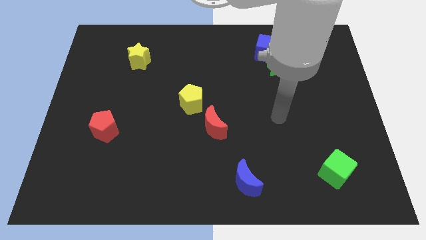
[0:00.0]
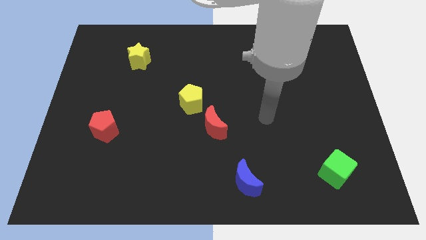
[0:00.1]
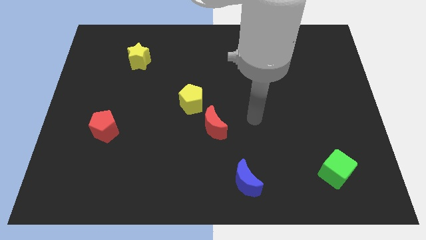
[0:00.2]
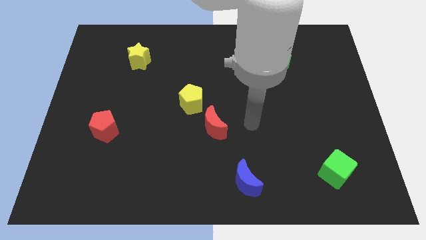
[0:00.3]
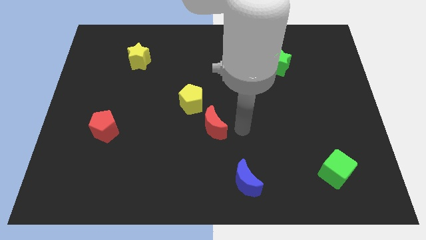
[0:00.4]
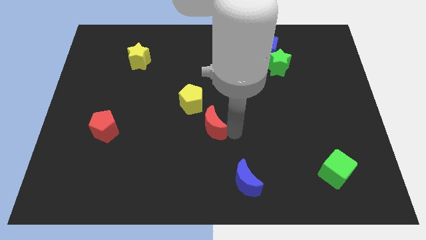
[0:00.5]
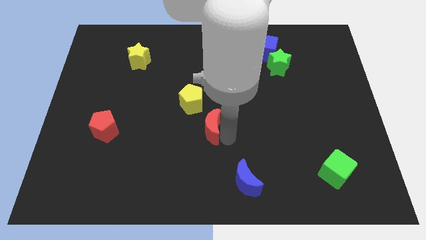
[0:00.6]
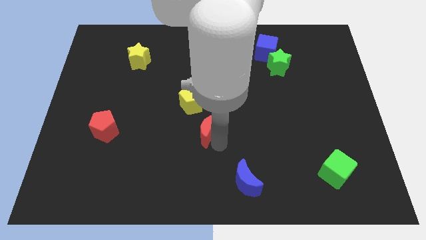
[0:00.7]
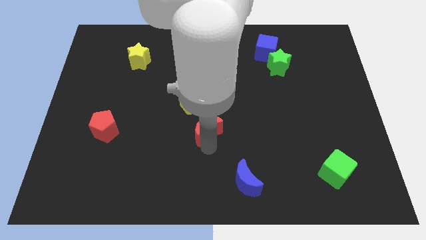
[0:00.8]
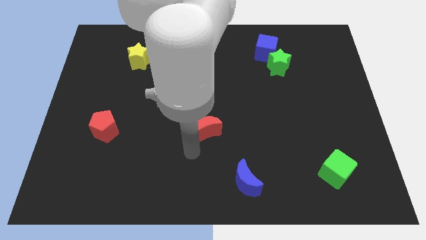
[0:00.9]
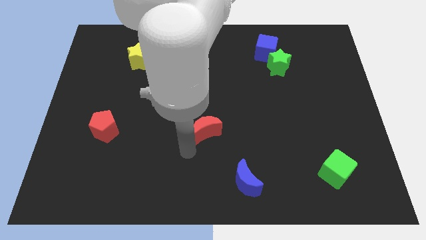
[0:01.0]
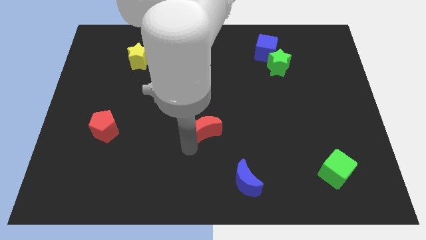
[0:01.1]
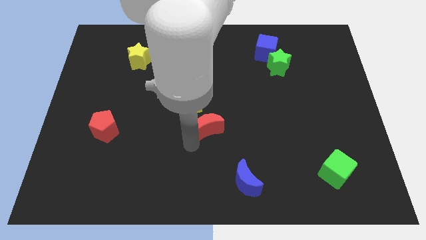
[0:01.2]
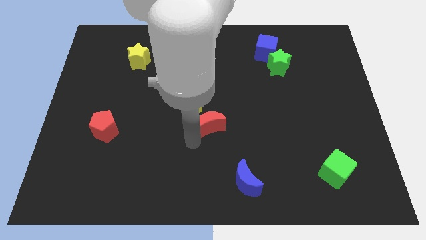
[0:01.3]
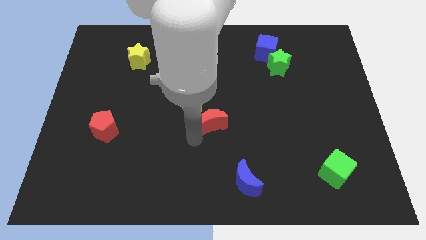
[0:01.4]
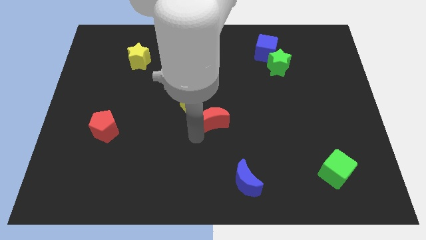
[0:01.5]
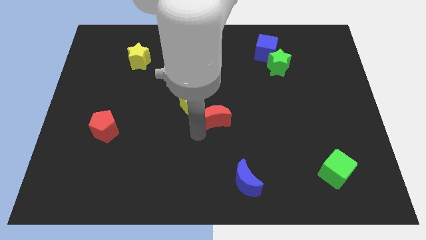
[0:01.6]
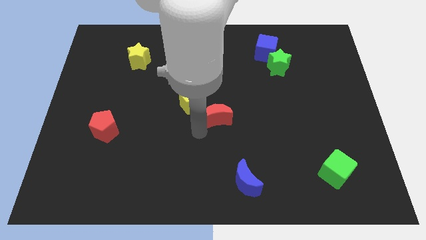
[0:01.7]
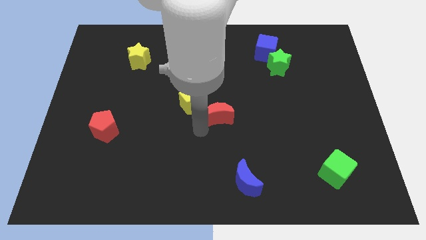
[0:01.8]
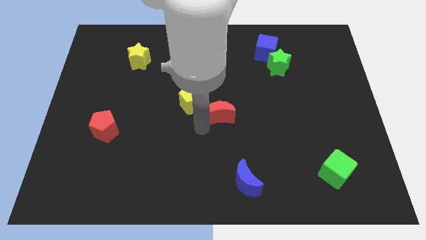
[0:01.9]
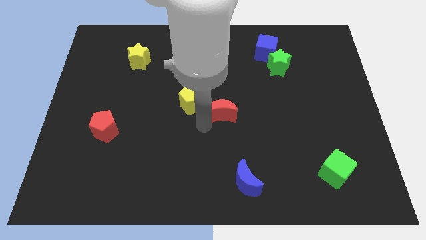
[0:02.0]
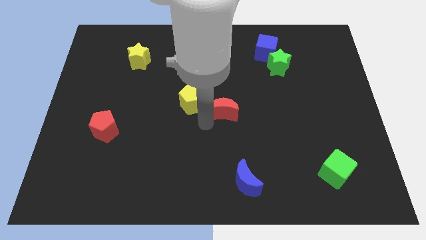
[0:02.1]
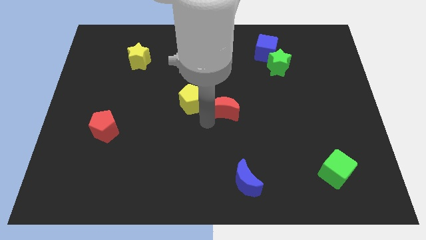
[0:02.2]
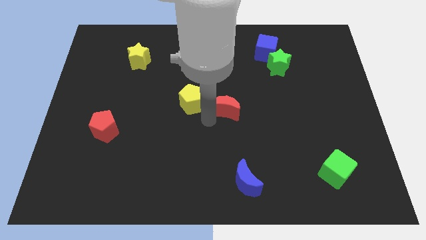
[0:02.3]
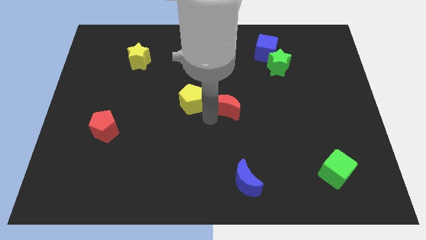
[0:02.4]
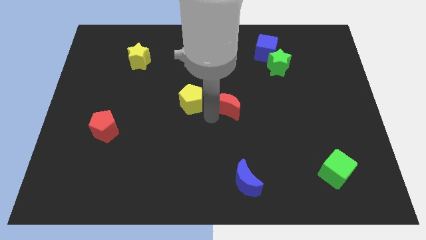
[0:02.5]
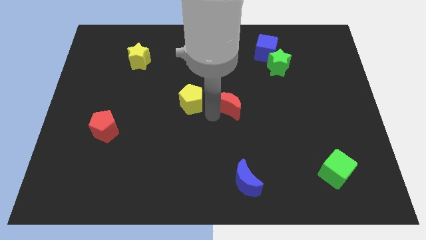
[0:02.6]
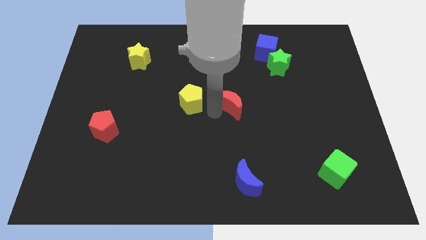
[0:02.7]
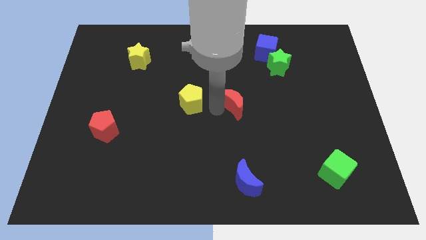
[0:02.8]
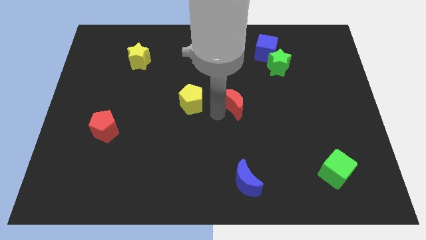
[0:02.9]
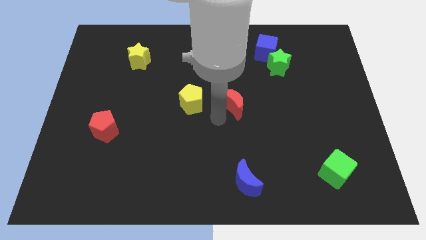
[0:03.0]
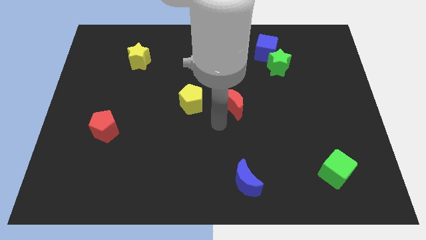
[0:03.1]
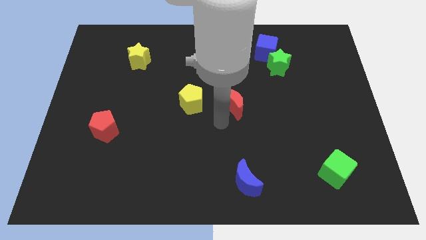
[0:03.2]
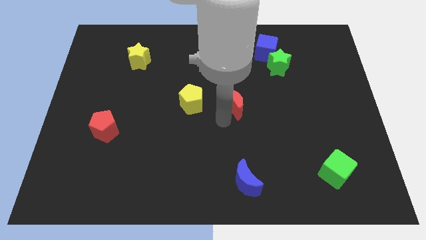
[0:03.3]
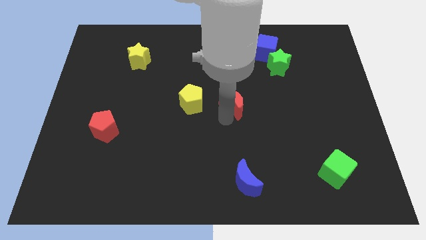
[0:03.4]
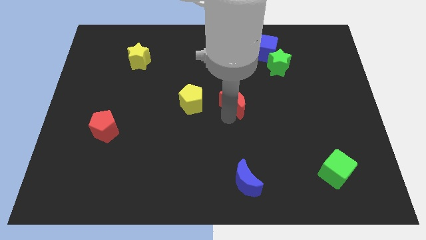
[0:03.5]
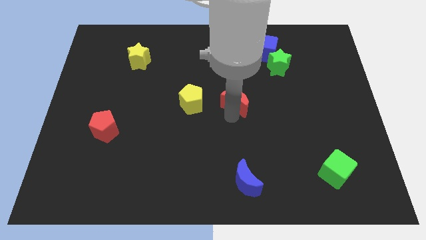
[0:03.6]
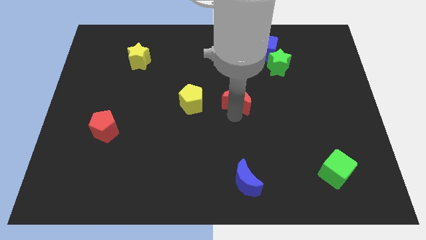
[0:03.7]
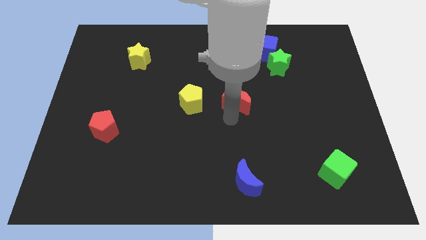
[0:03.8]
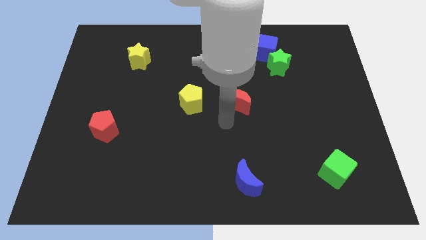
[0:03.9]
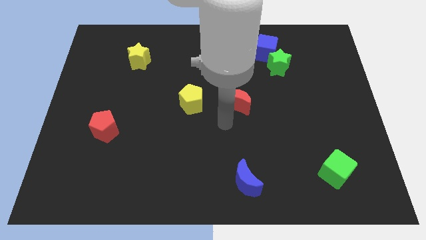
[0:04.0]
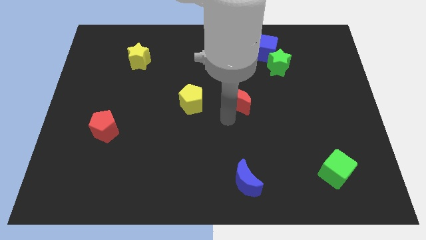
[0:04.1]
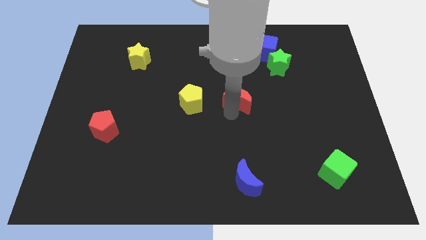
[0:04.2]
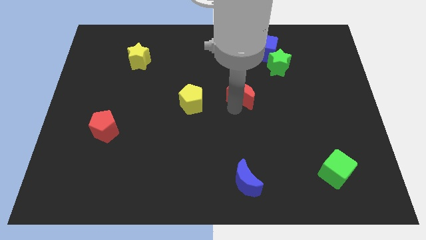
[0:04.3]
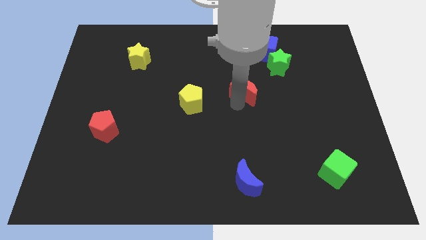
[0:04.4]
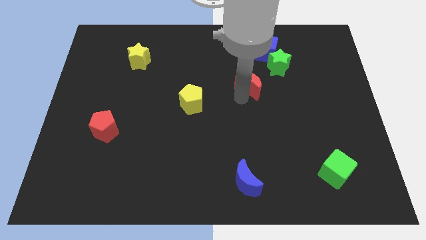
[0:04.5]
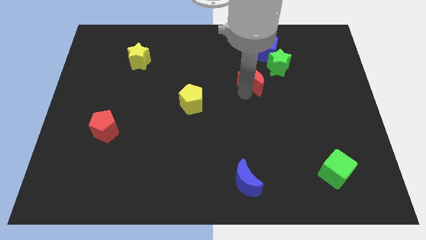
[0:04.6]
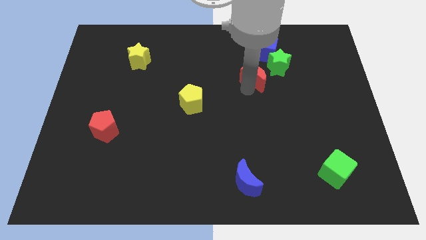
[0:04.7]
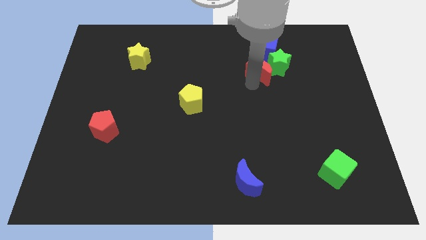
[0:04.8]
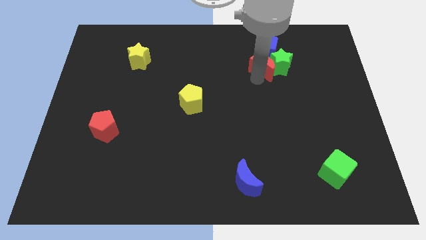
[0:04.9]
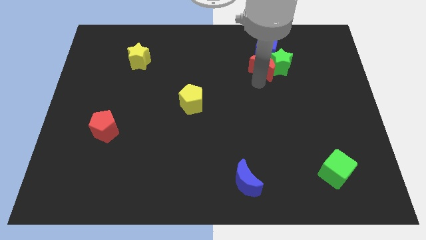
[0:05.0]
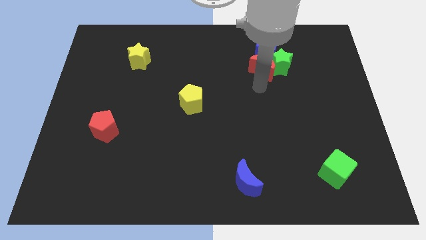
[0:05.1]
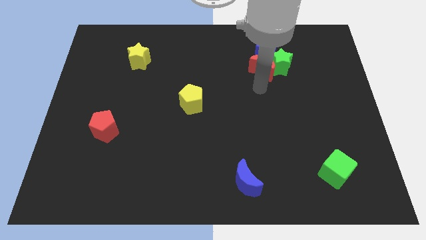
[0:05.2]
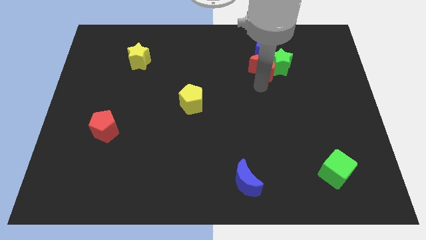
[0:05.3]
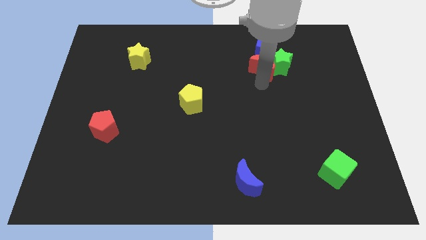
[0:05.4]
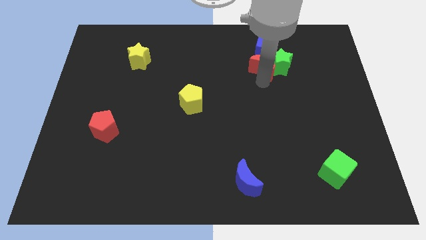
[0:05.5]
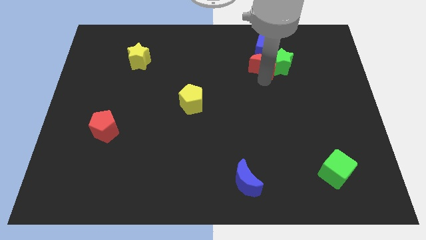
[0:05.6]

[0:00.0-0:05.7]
slide the red moon next to the blue cube
